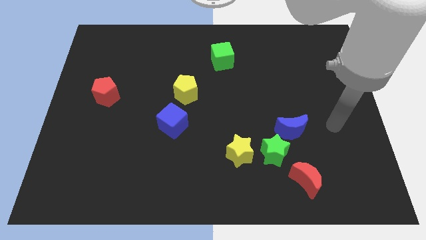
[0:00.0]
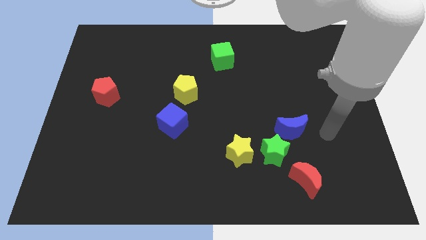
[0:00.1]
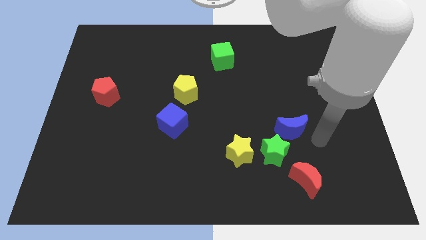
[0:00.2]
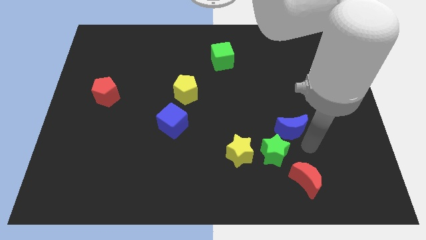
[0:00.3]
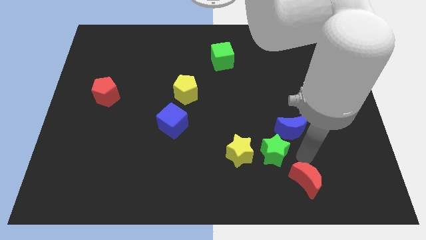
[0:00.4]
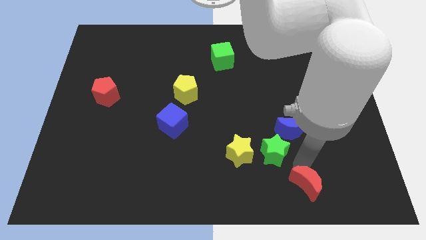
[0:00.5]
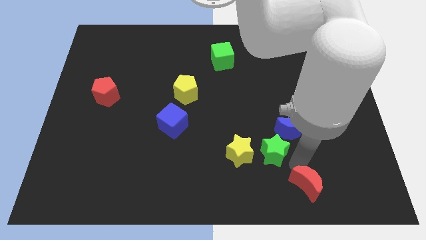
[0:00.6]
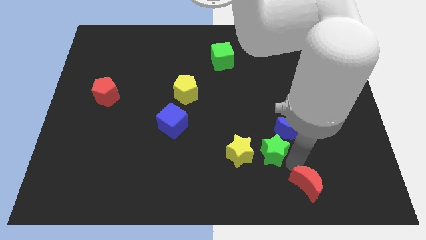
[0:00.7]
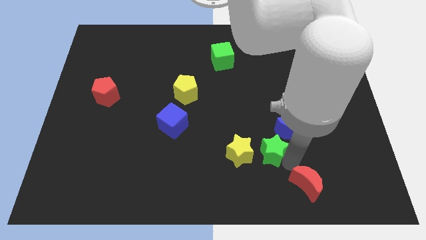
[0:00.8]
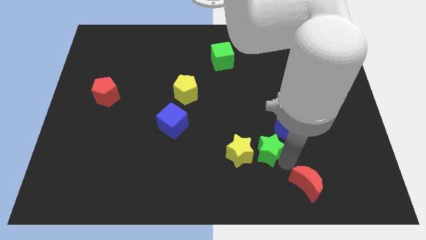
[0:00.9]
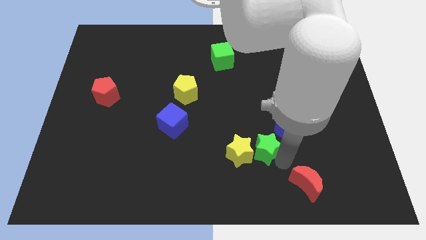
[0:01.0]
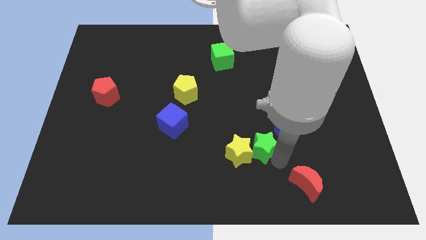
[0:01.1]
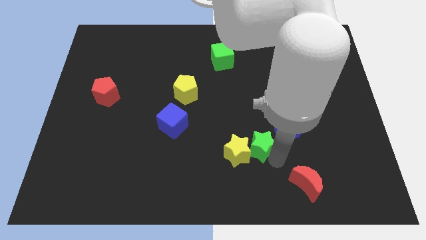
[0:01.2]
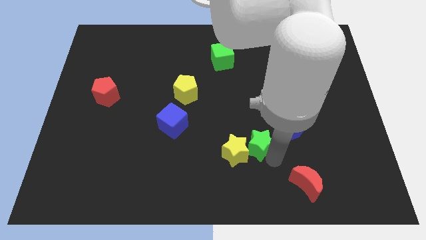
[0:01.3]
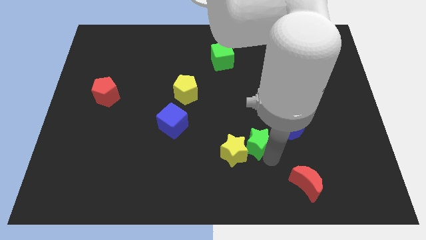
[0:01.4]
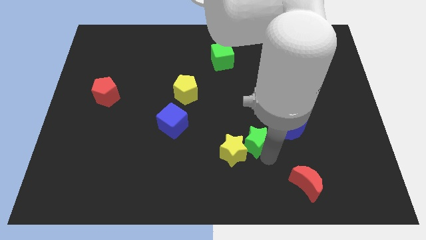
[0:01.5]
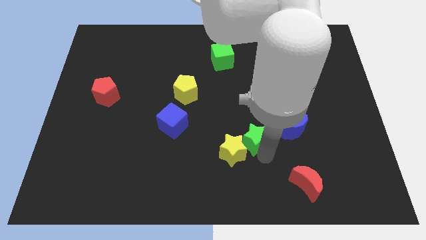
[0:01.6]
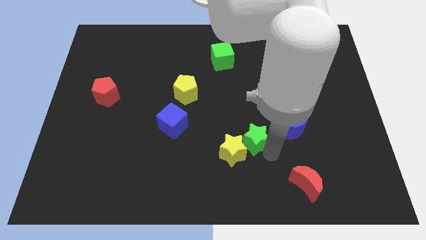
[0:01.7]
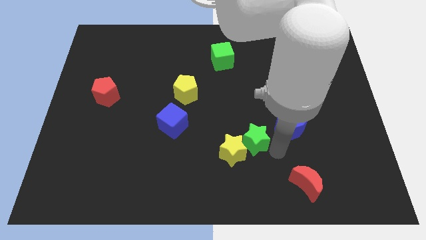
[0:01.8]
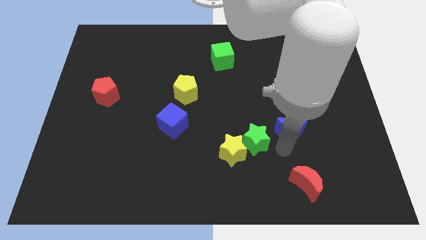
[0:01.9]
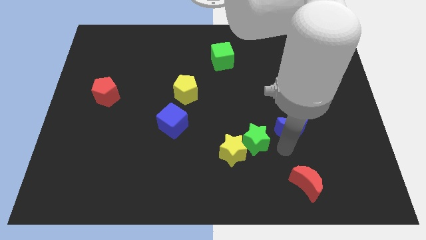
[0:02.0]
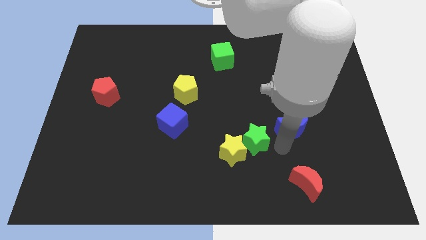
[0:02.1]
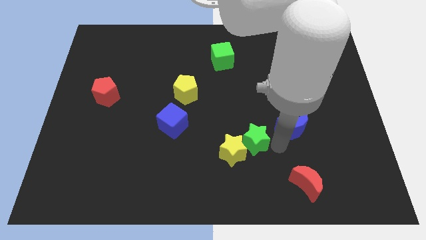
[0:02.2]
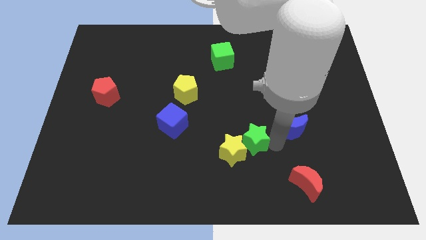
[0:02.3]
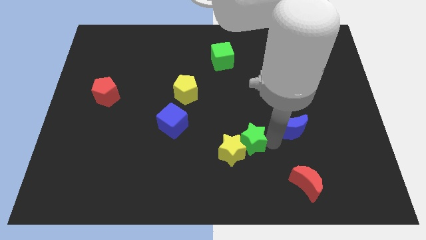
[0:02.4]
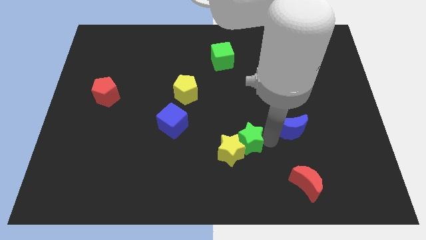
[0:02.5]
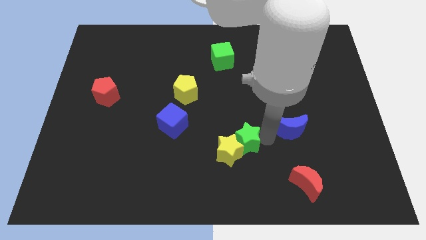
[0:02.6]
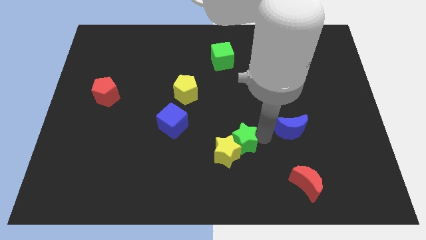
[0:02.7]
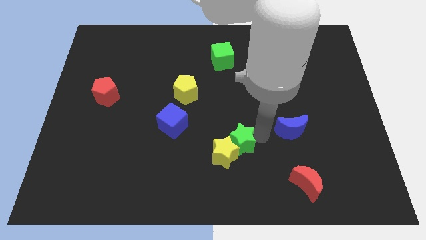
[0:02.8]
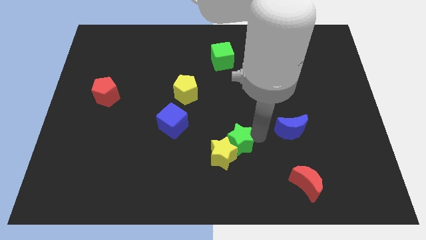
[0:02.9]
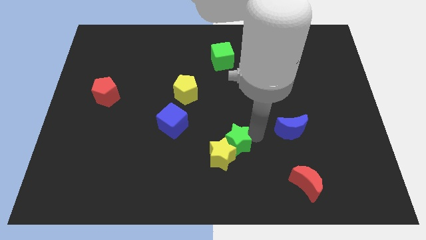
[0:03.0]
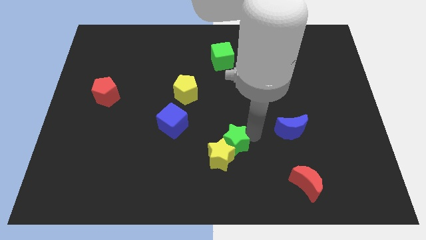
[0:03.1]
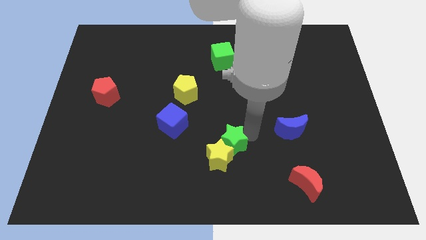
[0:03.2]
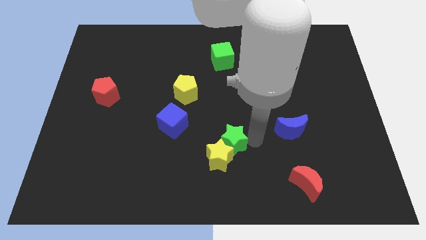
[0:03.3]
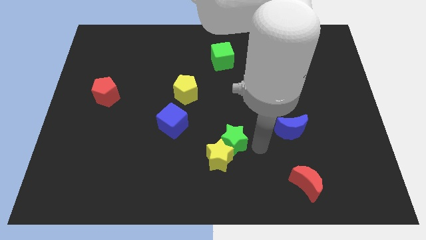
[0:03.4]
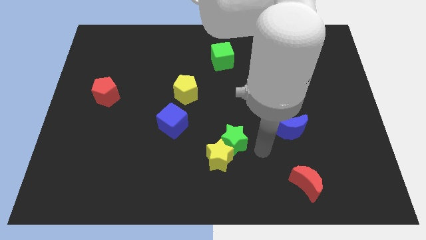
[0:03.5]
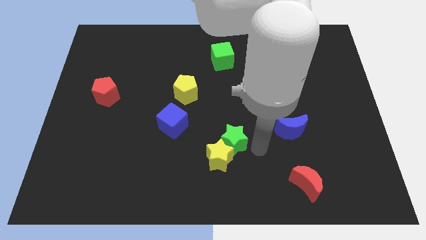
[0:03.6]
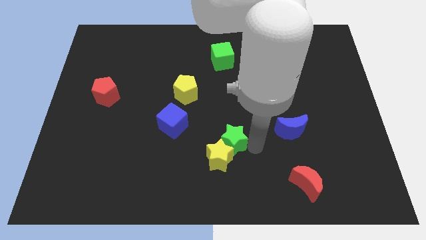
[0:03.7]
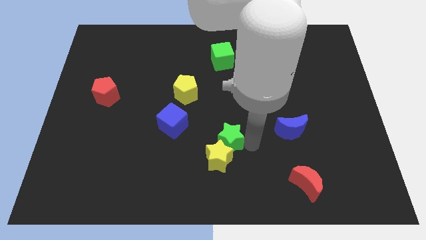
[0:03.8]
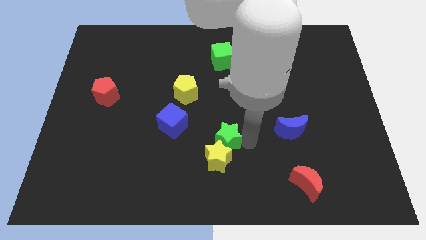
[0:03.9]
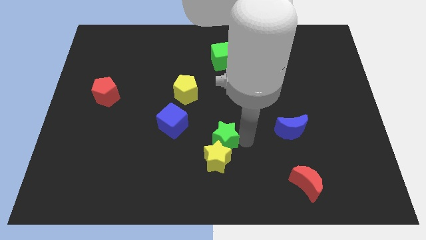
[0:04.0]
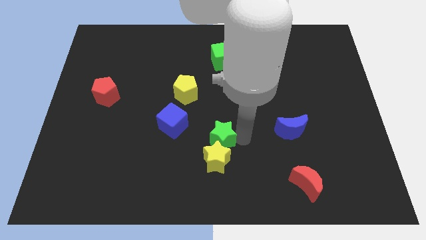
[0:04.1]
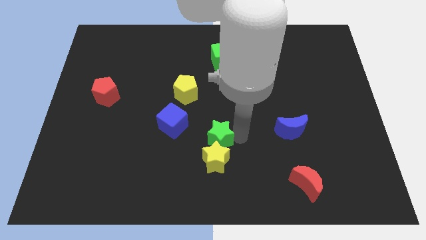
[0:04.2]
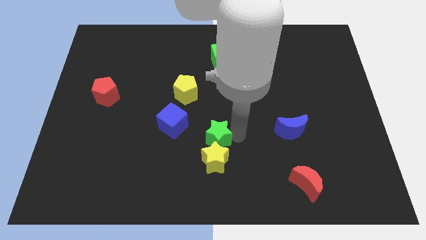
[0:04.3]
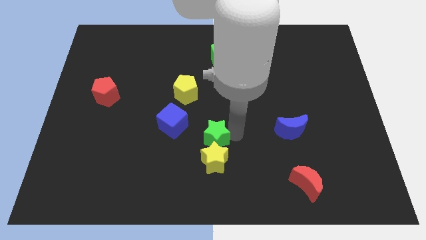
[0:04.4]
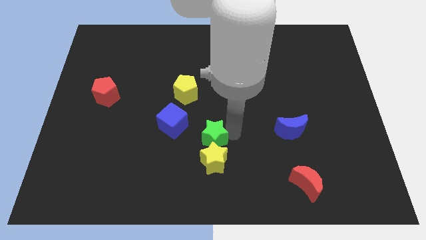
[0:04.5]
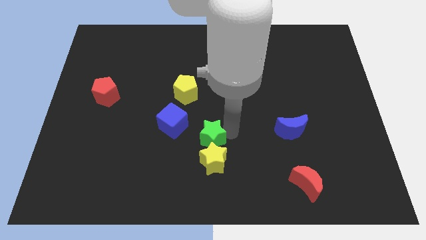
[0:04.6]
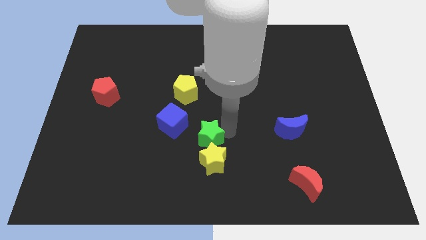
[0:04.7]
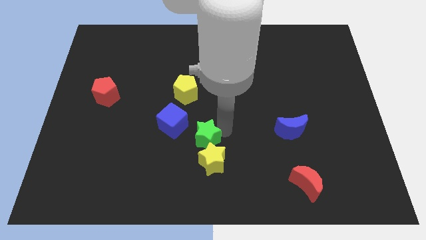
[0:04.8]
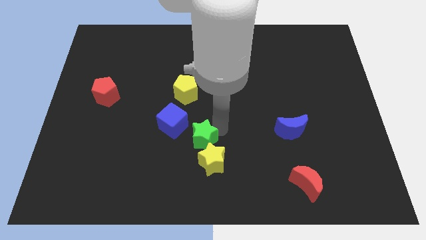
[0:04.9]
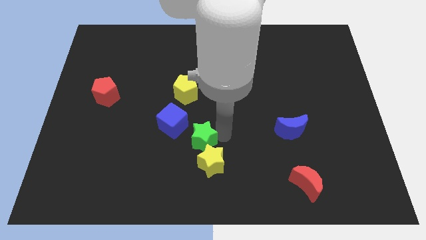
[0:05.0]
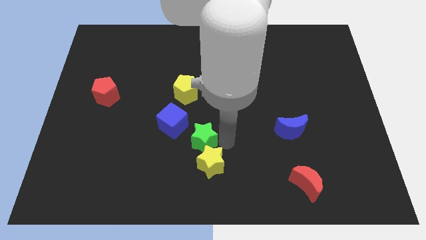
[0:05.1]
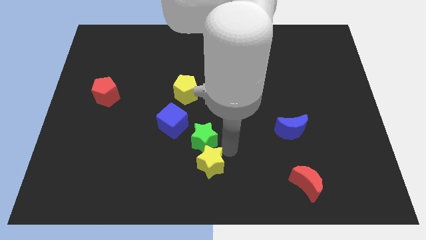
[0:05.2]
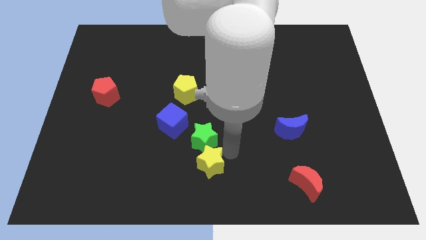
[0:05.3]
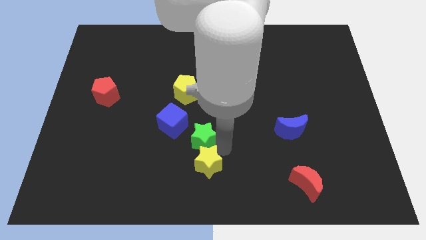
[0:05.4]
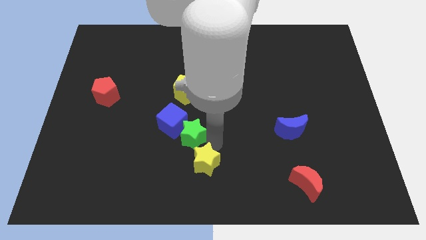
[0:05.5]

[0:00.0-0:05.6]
slide the green star close to the blue cube

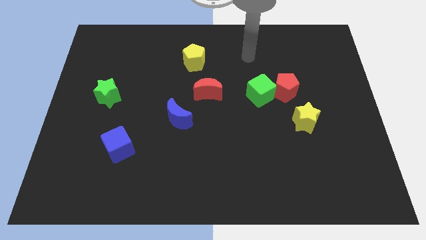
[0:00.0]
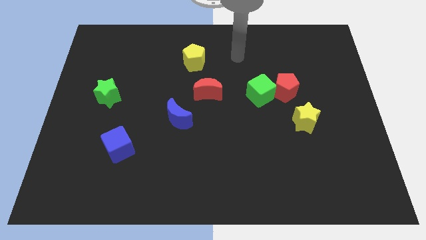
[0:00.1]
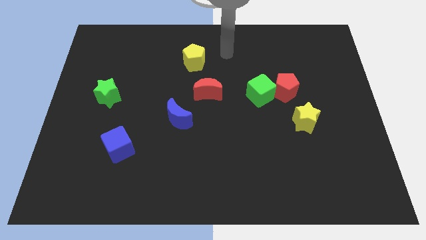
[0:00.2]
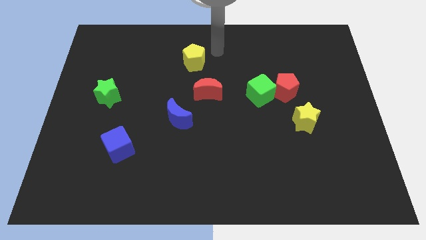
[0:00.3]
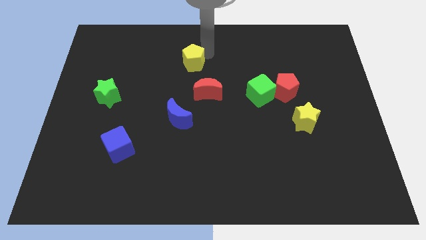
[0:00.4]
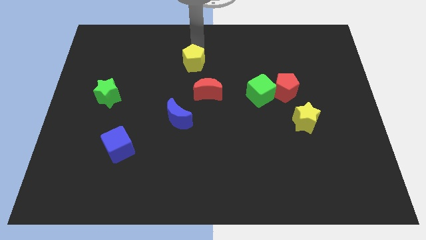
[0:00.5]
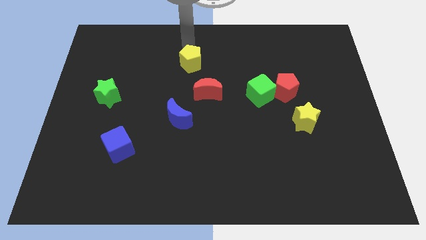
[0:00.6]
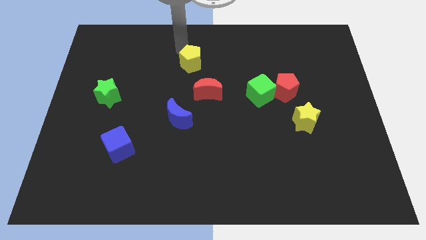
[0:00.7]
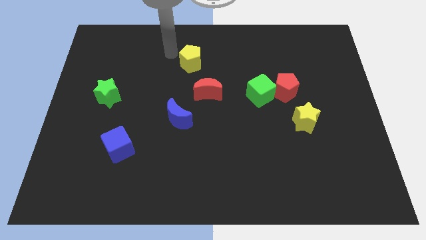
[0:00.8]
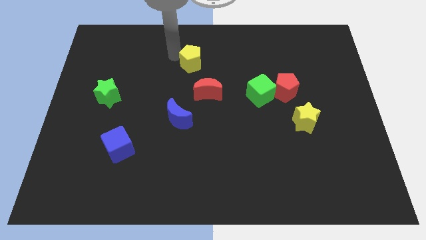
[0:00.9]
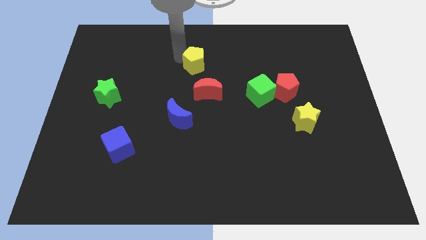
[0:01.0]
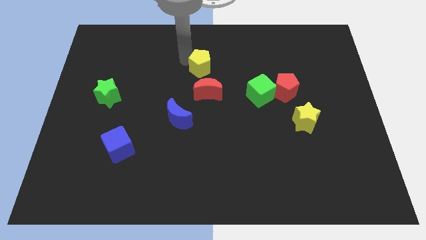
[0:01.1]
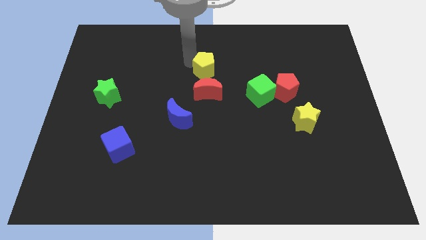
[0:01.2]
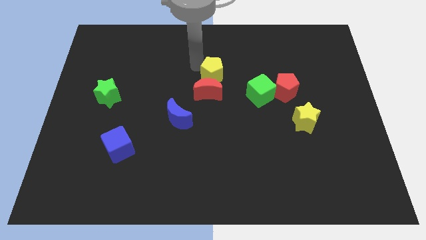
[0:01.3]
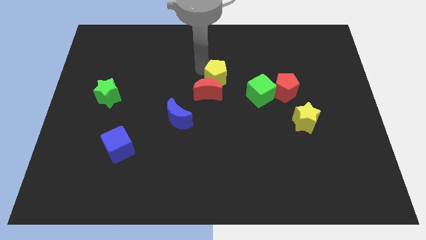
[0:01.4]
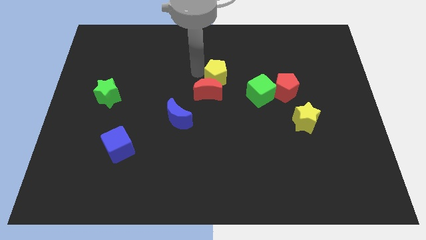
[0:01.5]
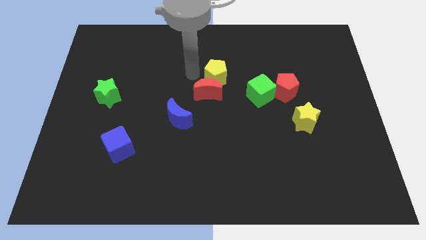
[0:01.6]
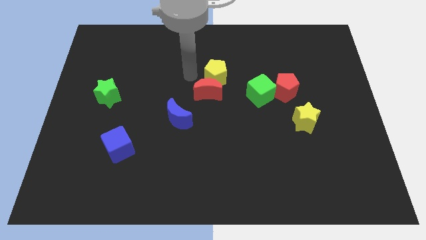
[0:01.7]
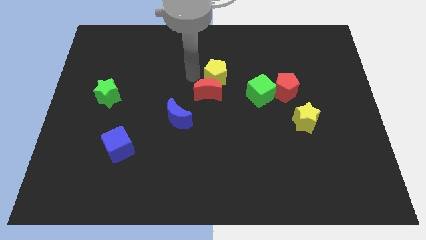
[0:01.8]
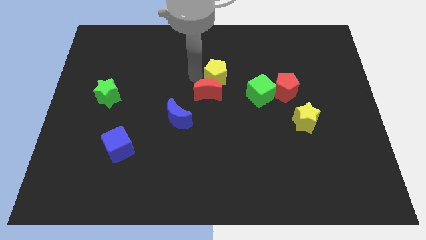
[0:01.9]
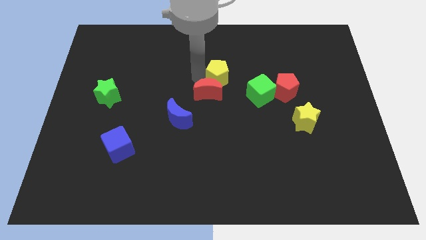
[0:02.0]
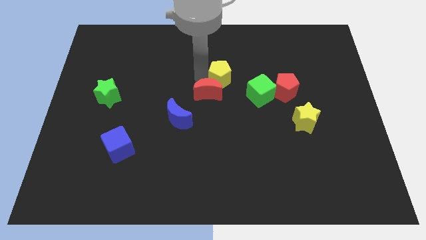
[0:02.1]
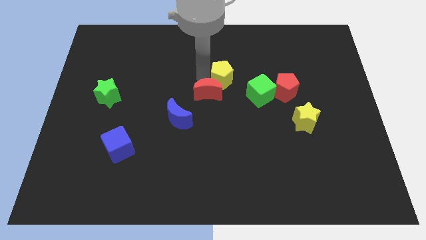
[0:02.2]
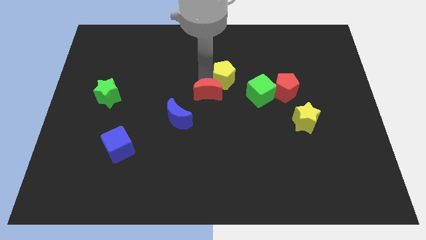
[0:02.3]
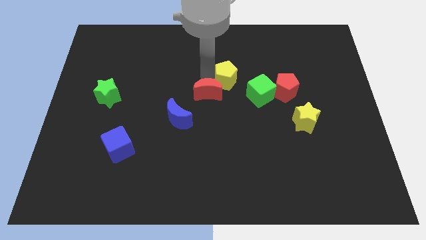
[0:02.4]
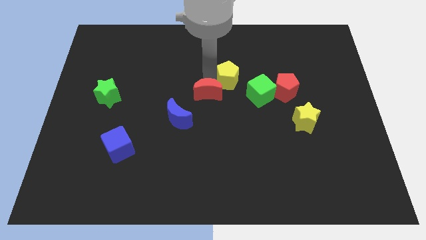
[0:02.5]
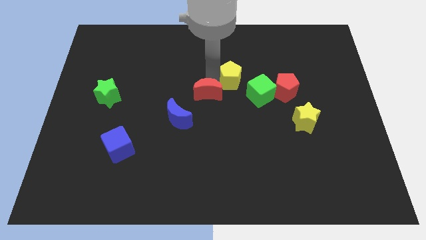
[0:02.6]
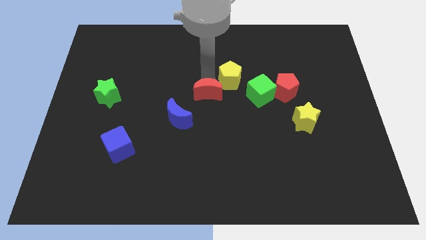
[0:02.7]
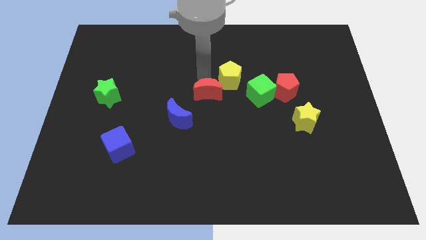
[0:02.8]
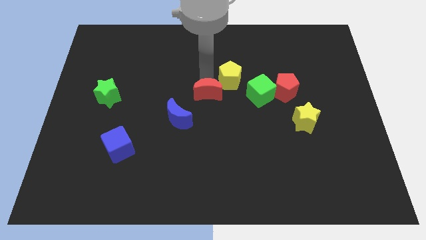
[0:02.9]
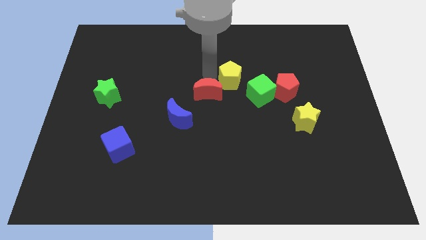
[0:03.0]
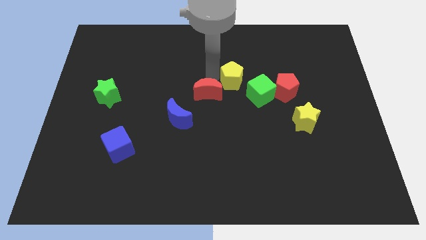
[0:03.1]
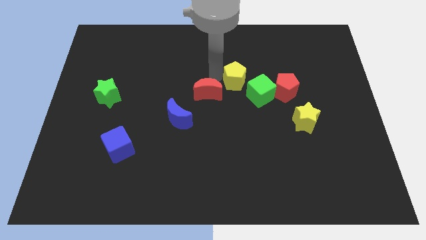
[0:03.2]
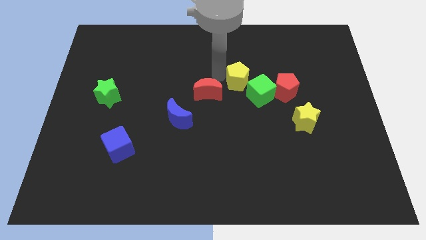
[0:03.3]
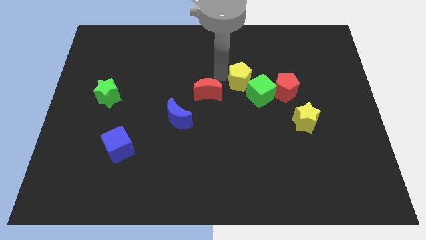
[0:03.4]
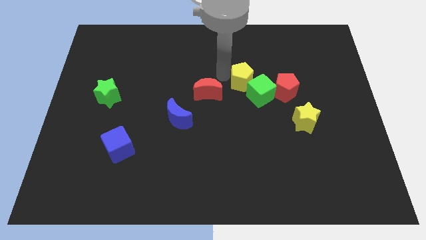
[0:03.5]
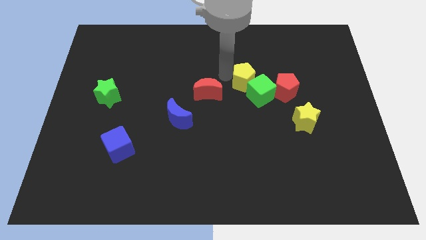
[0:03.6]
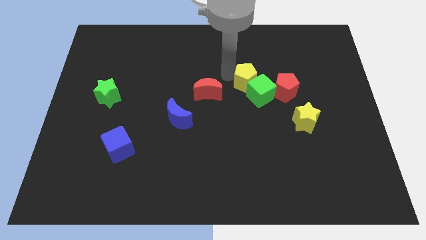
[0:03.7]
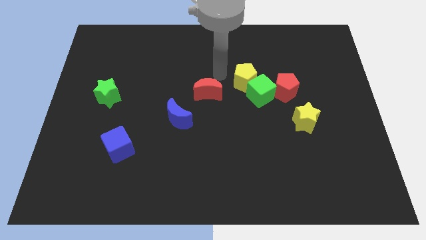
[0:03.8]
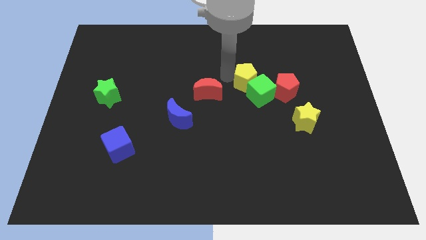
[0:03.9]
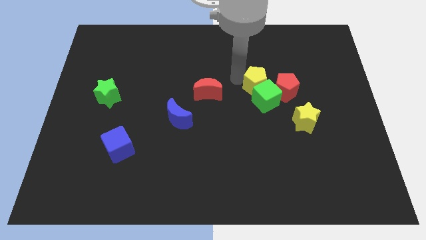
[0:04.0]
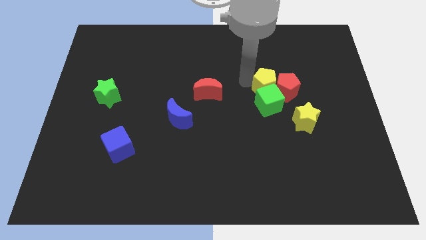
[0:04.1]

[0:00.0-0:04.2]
push the yellow pentagon to the red pentagon
